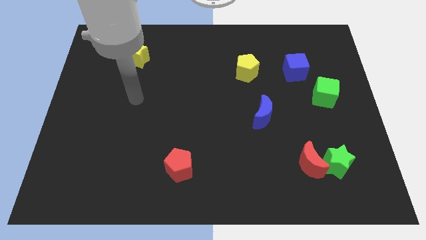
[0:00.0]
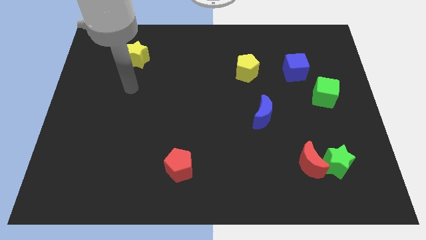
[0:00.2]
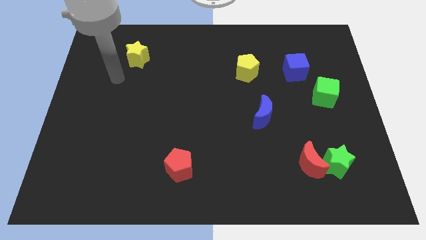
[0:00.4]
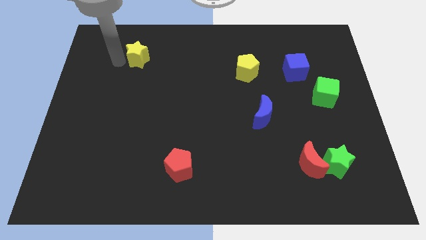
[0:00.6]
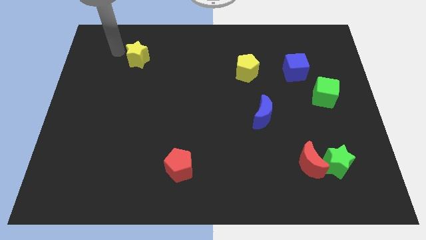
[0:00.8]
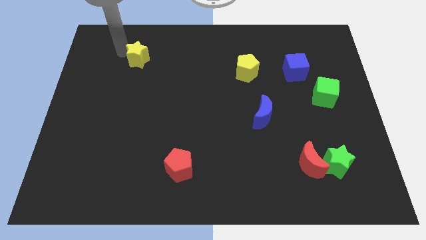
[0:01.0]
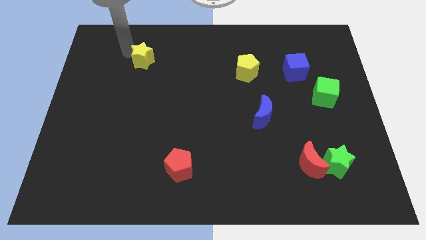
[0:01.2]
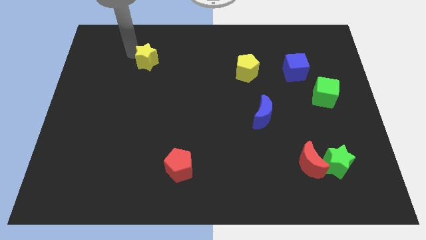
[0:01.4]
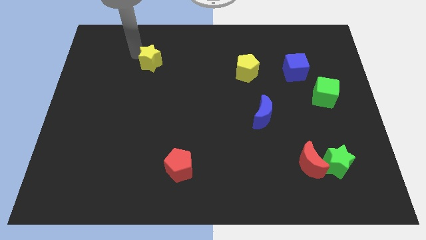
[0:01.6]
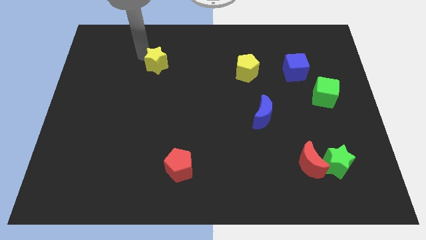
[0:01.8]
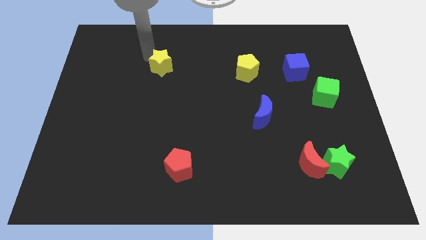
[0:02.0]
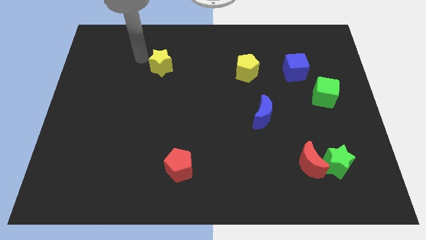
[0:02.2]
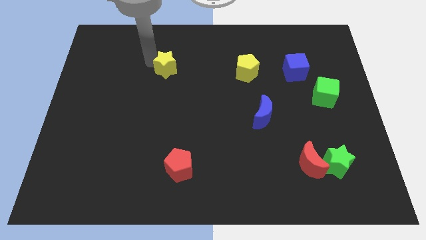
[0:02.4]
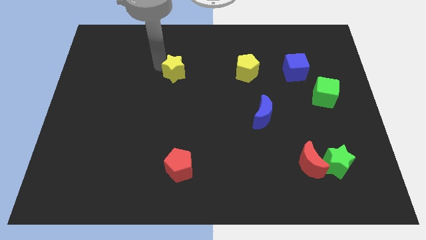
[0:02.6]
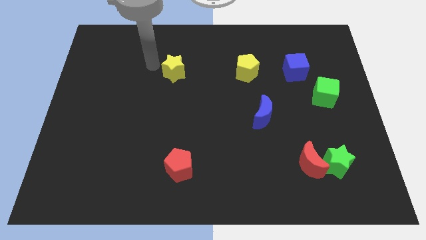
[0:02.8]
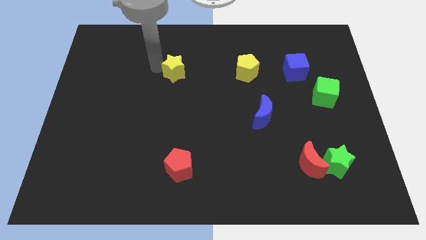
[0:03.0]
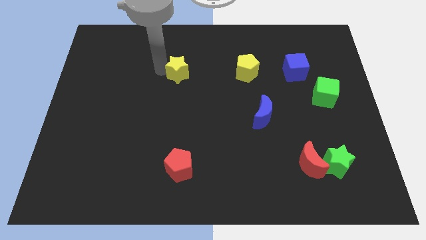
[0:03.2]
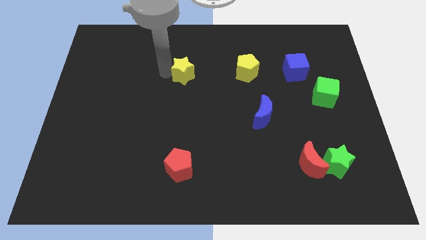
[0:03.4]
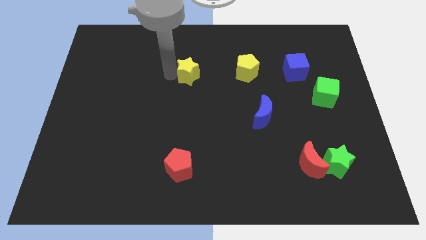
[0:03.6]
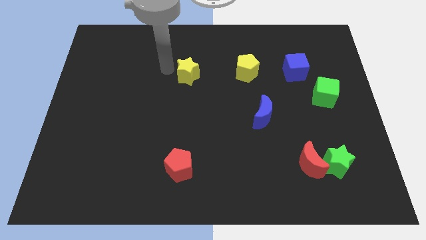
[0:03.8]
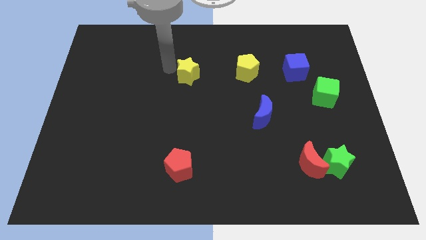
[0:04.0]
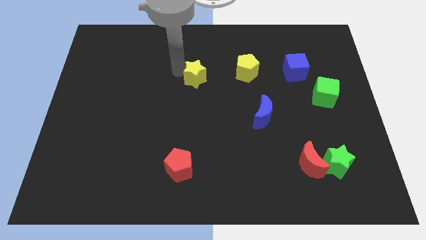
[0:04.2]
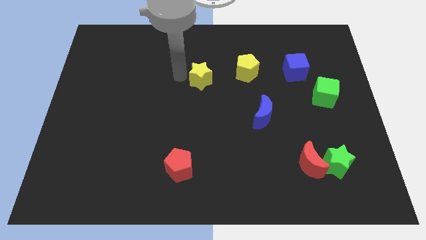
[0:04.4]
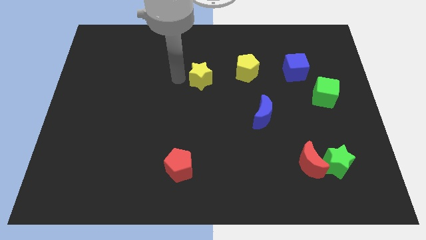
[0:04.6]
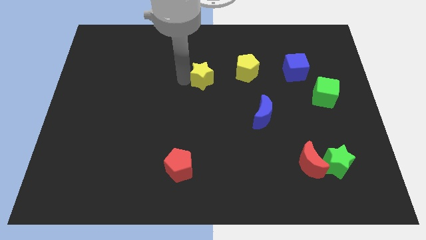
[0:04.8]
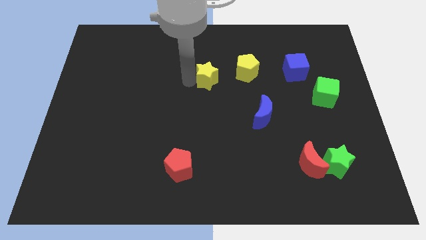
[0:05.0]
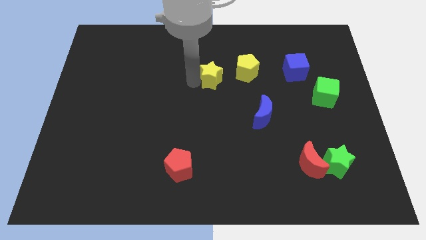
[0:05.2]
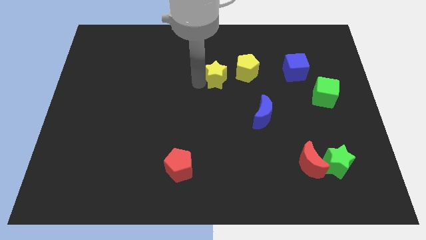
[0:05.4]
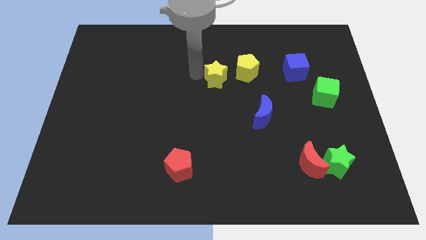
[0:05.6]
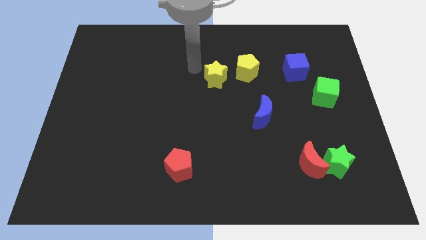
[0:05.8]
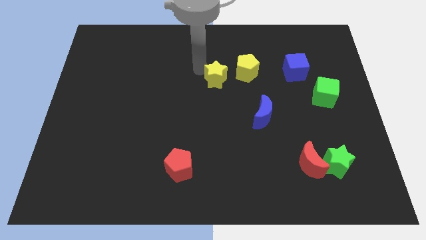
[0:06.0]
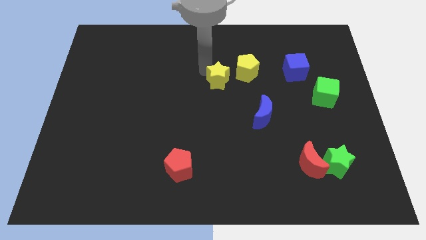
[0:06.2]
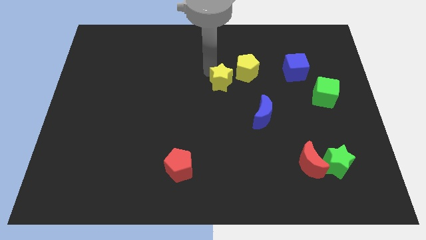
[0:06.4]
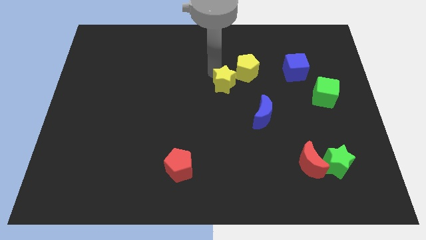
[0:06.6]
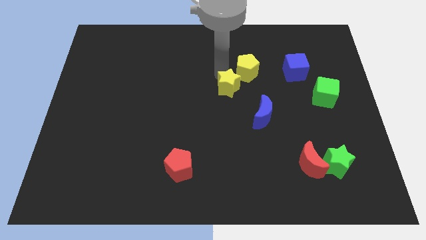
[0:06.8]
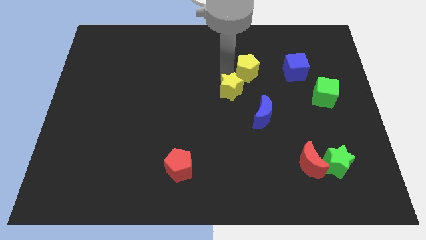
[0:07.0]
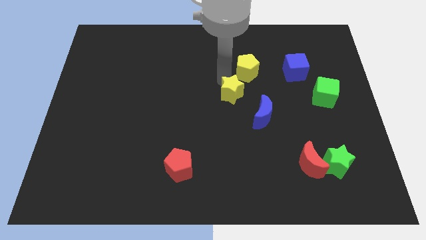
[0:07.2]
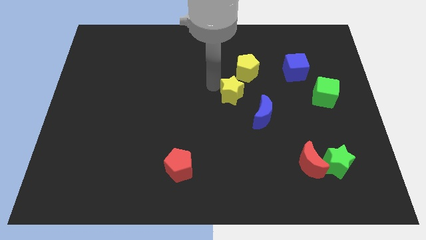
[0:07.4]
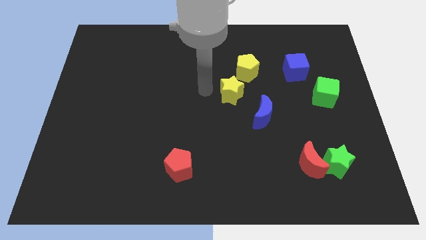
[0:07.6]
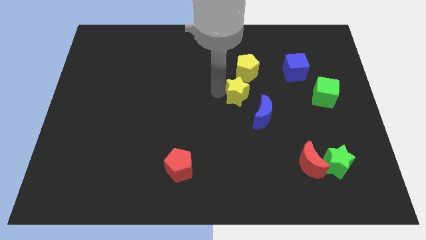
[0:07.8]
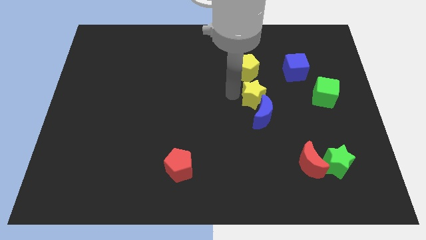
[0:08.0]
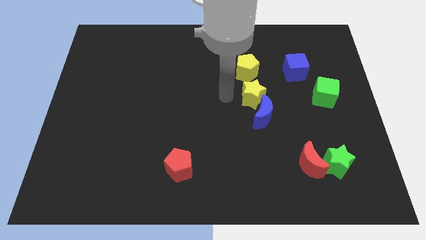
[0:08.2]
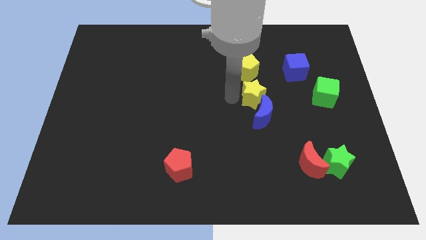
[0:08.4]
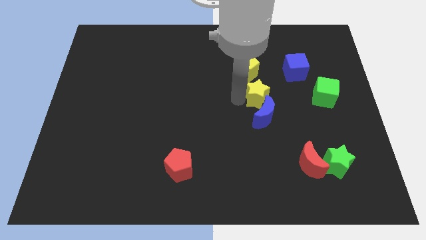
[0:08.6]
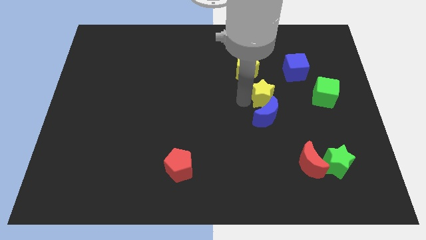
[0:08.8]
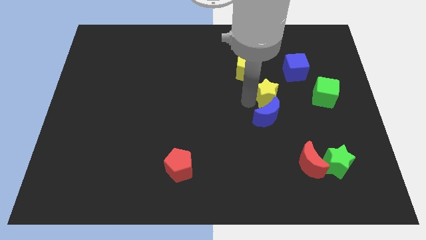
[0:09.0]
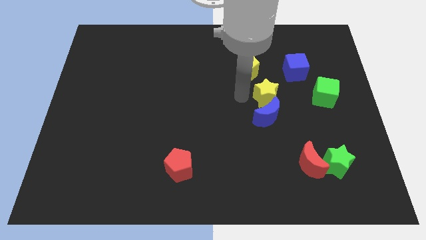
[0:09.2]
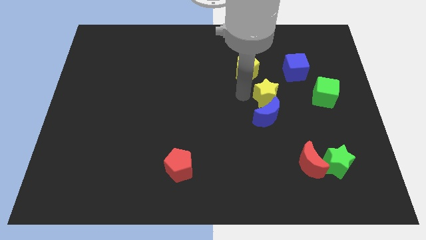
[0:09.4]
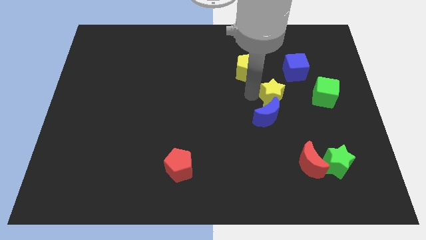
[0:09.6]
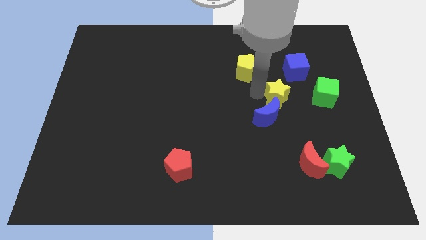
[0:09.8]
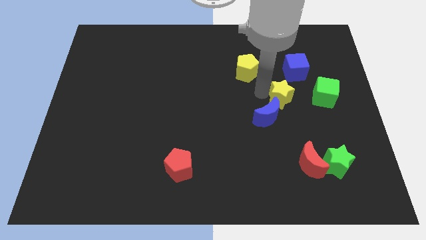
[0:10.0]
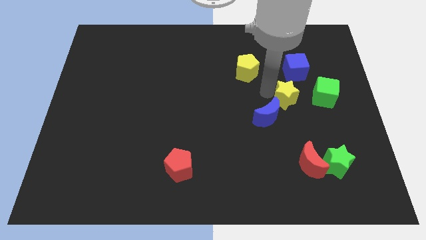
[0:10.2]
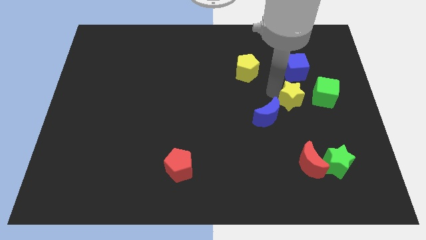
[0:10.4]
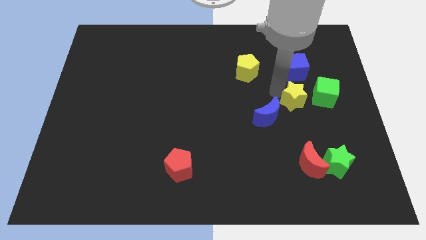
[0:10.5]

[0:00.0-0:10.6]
move the yellow star to the bottom left of the green cube

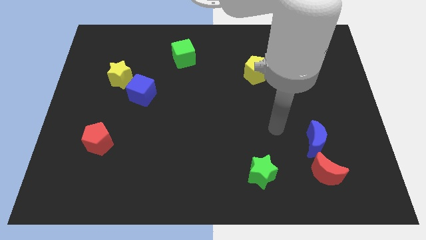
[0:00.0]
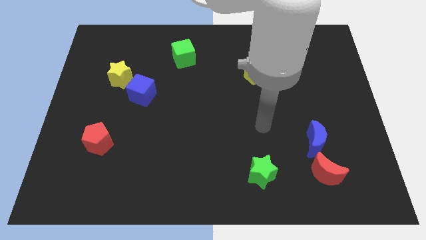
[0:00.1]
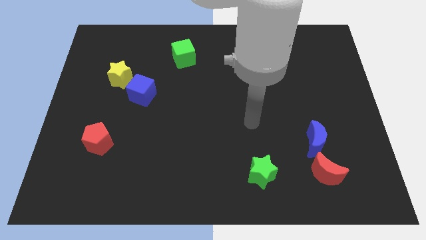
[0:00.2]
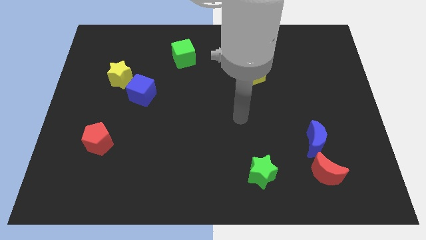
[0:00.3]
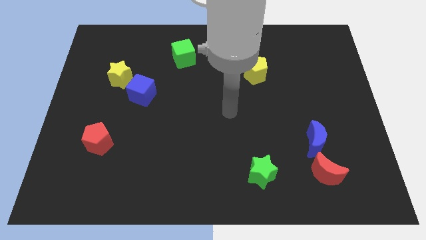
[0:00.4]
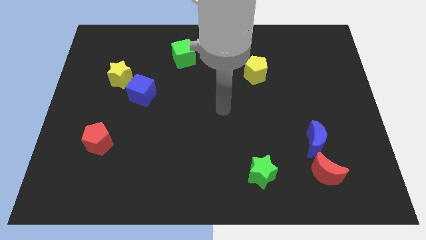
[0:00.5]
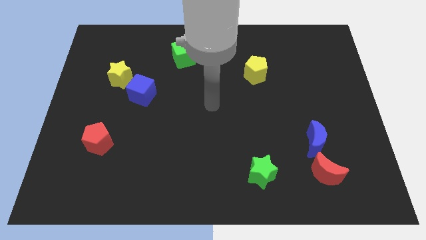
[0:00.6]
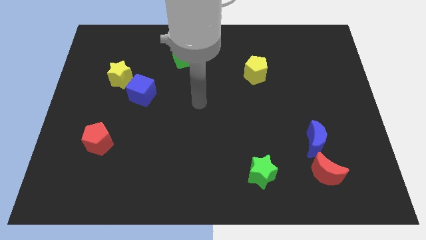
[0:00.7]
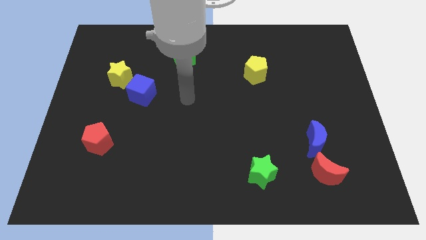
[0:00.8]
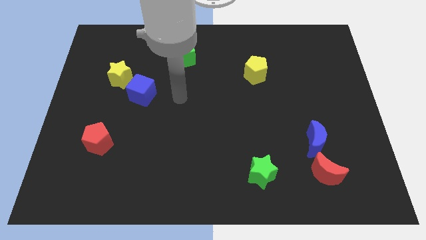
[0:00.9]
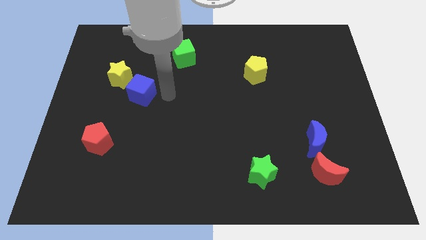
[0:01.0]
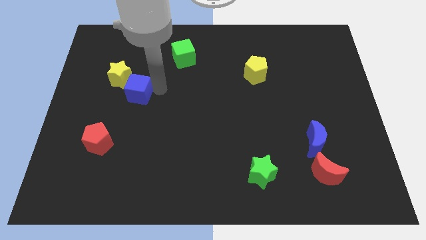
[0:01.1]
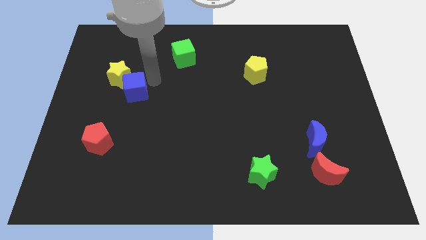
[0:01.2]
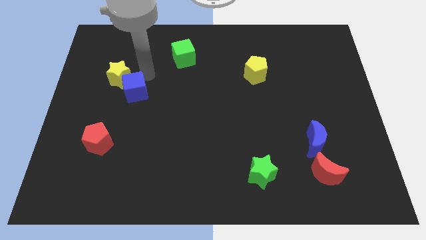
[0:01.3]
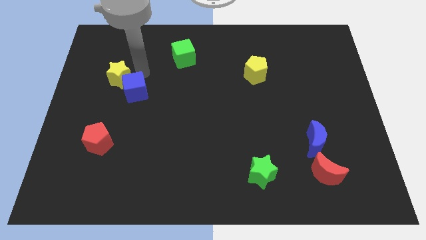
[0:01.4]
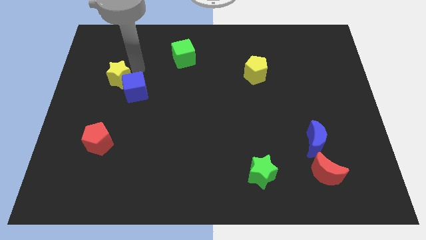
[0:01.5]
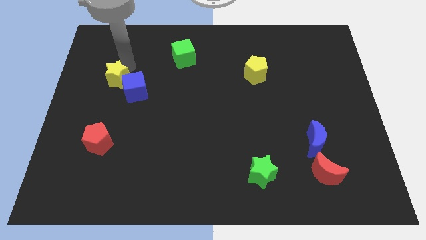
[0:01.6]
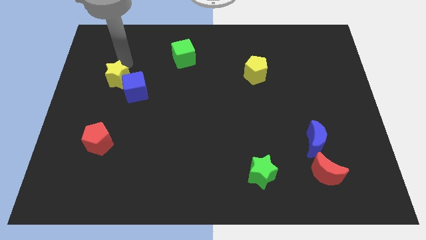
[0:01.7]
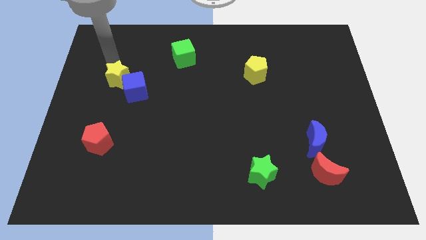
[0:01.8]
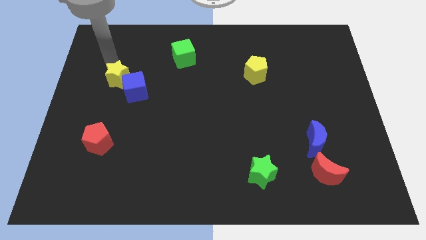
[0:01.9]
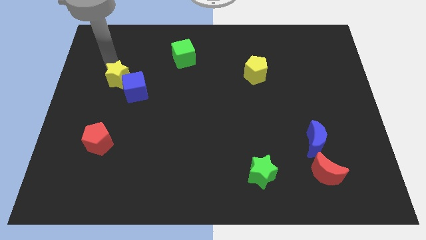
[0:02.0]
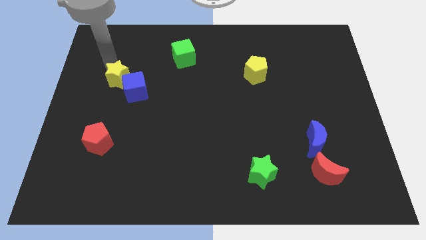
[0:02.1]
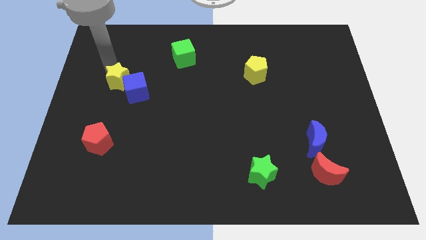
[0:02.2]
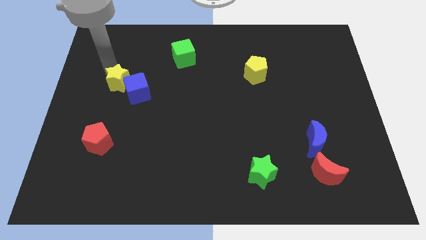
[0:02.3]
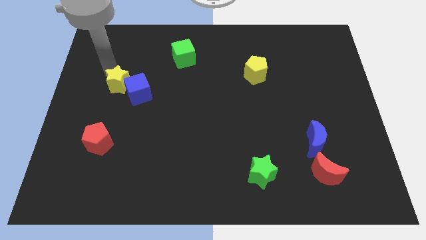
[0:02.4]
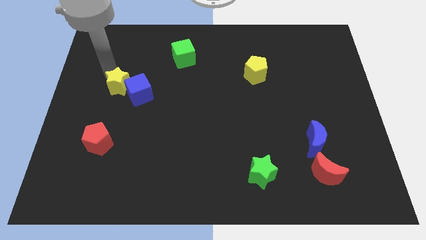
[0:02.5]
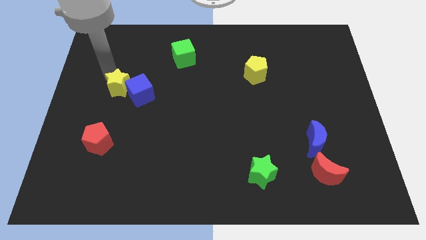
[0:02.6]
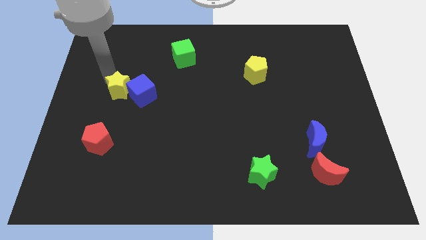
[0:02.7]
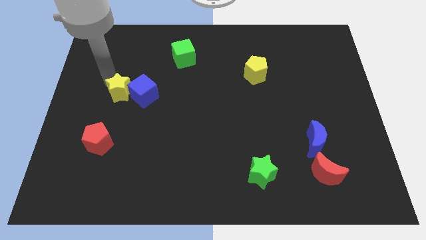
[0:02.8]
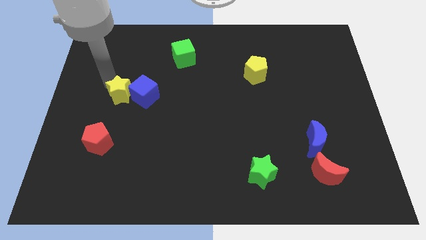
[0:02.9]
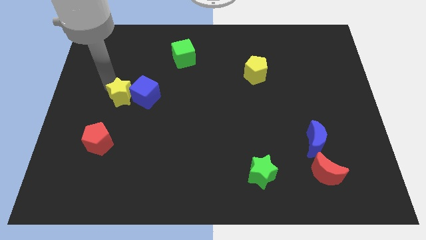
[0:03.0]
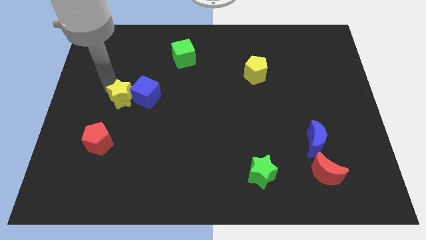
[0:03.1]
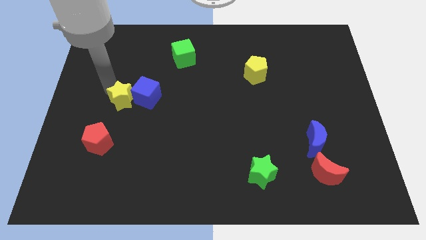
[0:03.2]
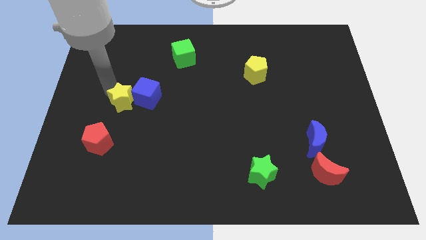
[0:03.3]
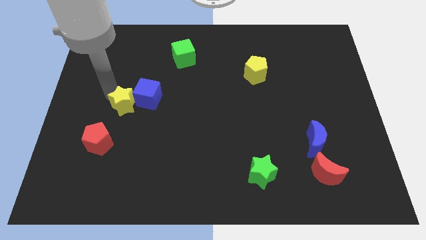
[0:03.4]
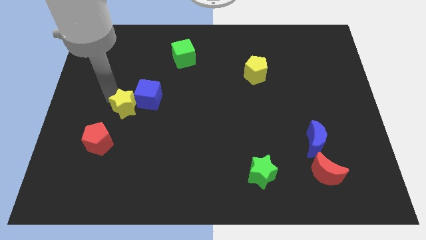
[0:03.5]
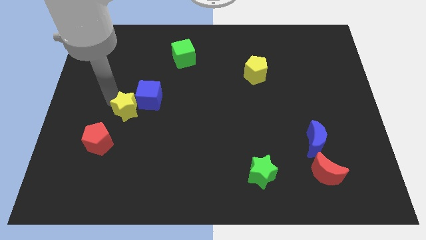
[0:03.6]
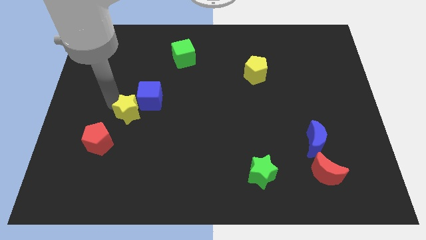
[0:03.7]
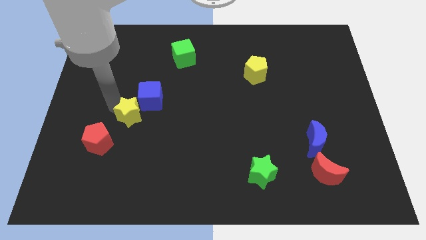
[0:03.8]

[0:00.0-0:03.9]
push the yellow star to the bottom side of the blue cube
